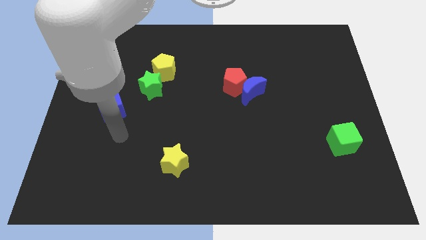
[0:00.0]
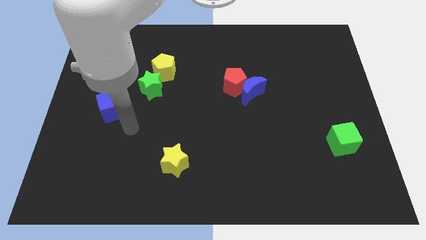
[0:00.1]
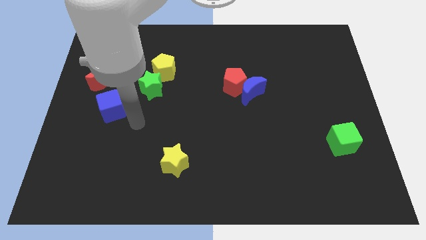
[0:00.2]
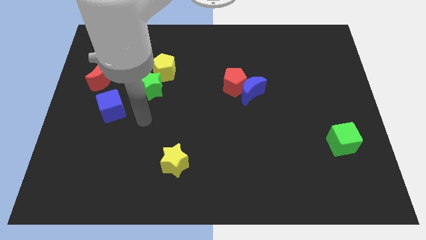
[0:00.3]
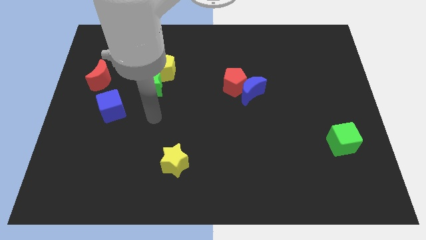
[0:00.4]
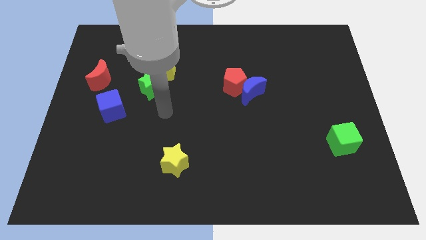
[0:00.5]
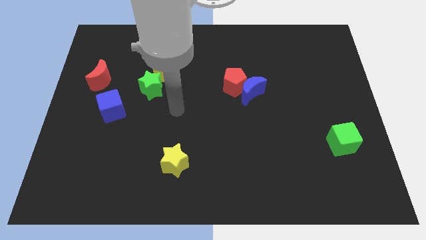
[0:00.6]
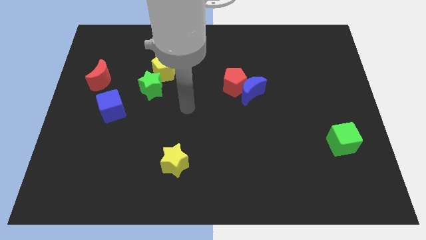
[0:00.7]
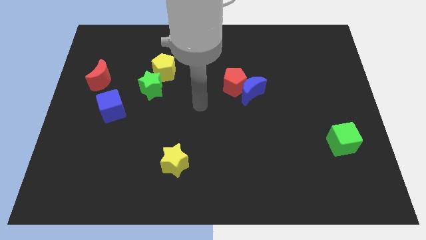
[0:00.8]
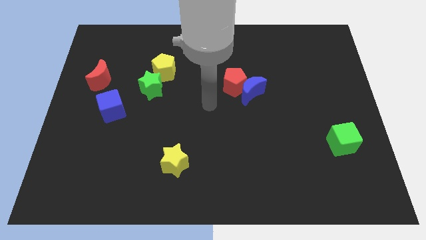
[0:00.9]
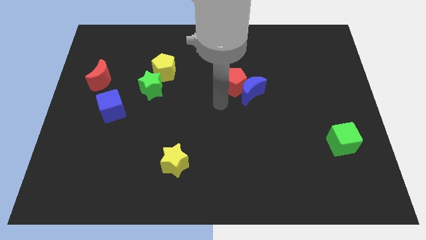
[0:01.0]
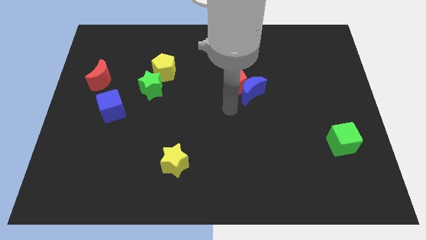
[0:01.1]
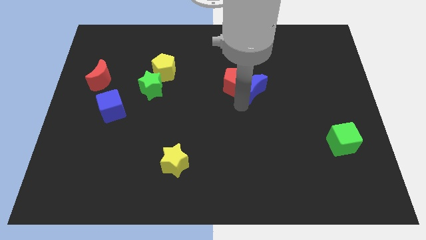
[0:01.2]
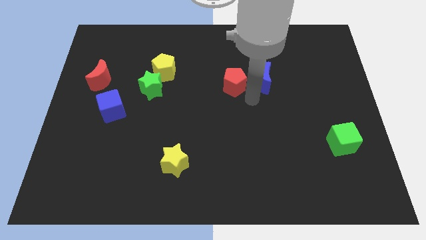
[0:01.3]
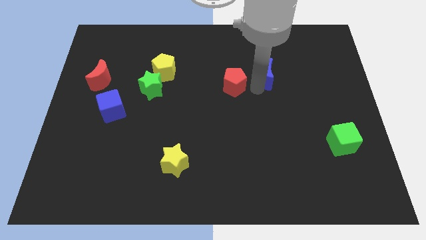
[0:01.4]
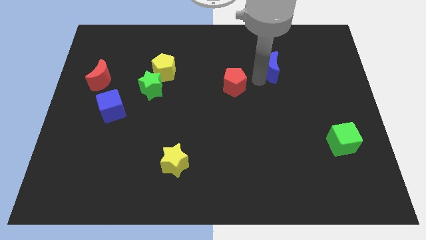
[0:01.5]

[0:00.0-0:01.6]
separate the red pentagon from the blue moon

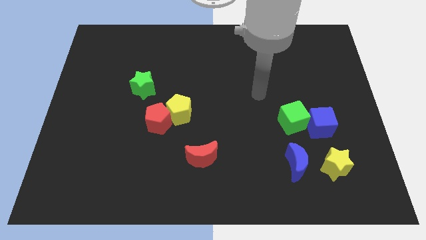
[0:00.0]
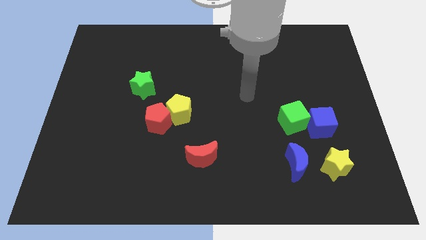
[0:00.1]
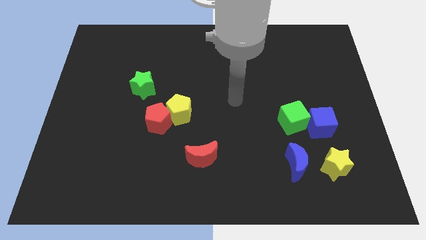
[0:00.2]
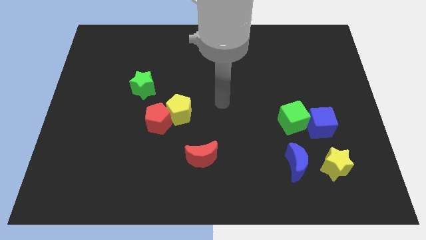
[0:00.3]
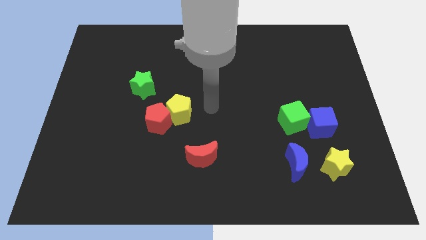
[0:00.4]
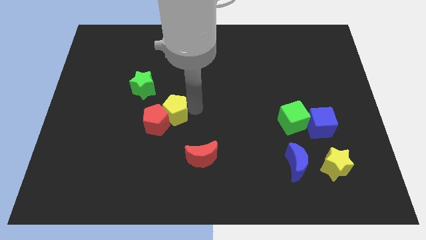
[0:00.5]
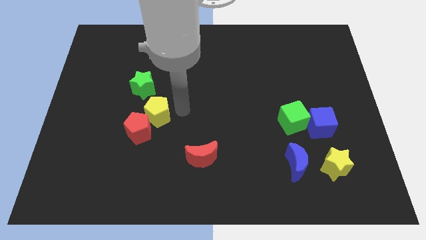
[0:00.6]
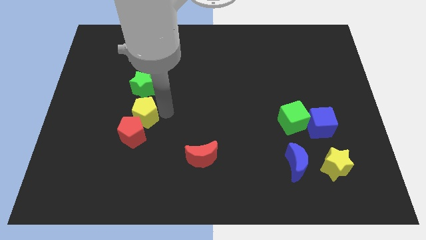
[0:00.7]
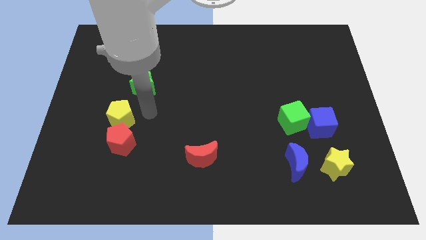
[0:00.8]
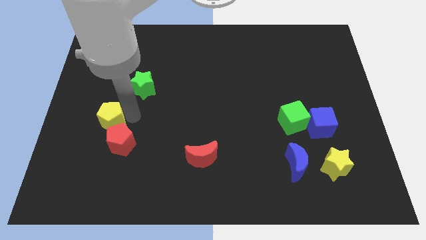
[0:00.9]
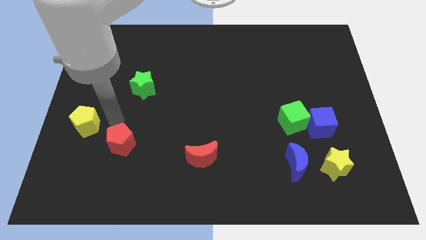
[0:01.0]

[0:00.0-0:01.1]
pull the red pentagon apart from the yellow pentagon

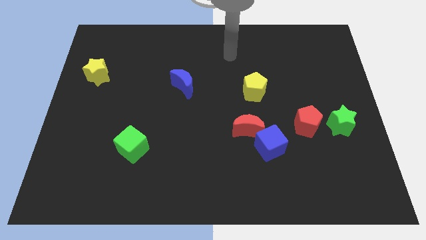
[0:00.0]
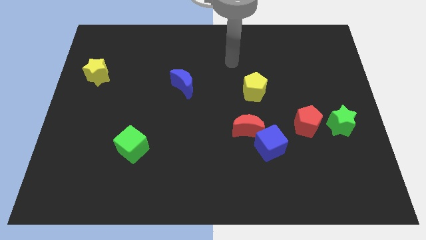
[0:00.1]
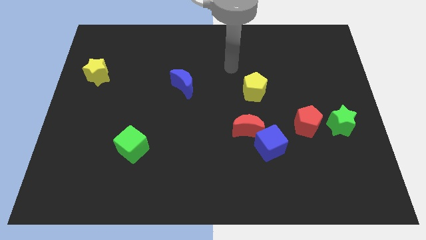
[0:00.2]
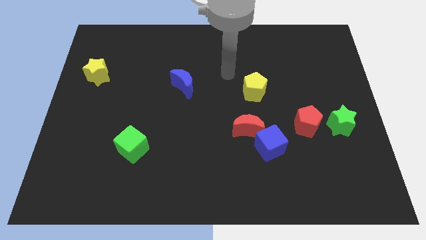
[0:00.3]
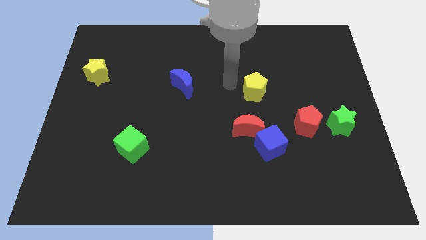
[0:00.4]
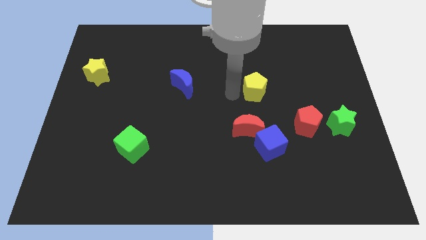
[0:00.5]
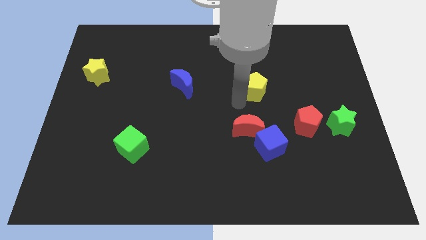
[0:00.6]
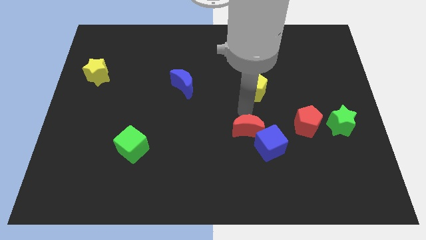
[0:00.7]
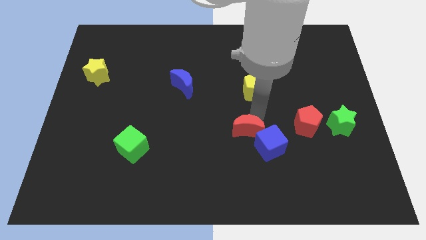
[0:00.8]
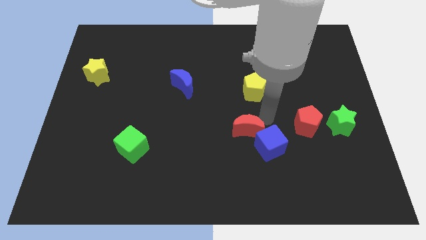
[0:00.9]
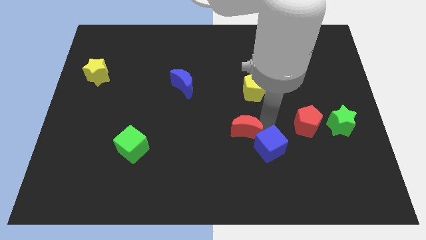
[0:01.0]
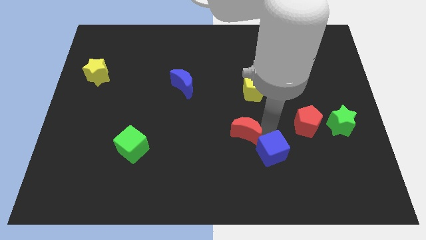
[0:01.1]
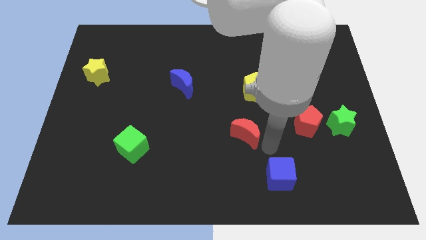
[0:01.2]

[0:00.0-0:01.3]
move the red moon away from the blue cube

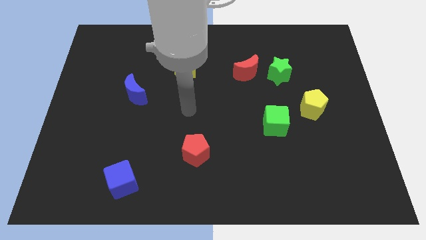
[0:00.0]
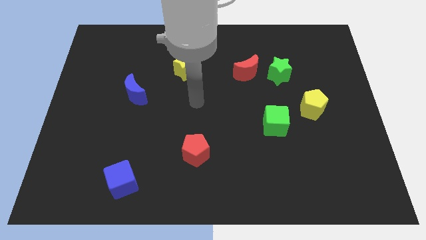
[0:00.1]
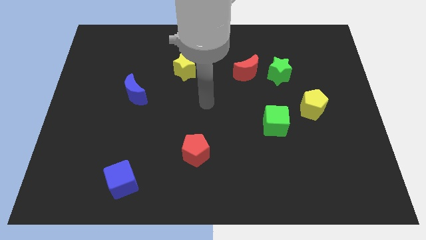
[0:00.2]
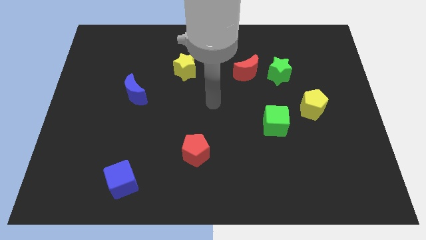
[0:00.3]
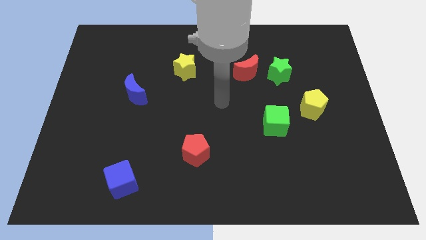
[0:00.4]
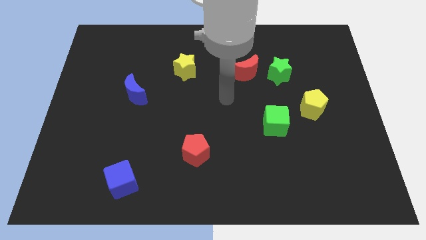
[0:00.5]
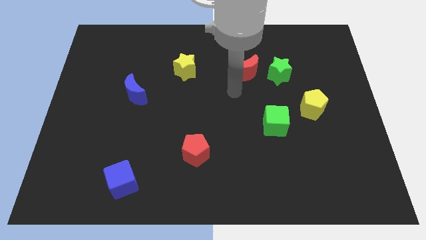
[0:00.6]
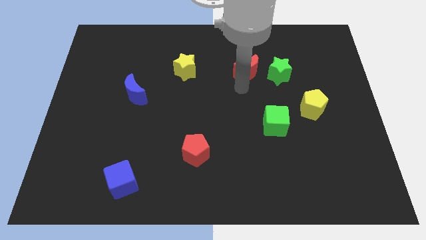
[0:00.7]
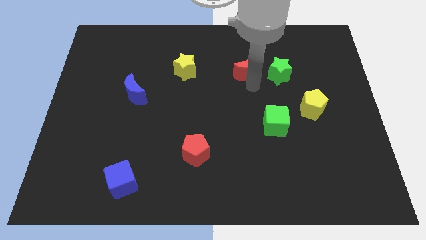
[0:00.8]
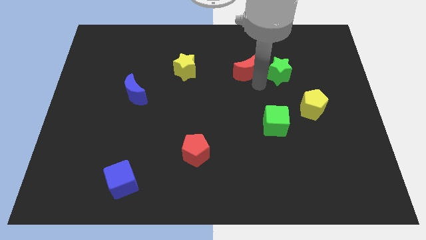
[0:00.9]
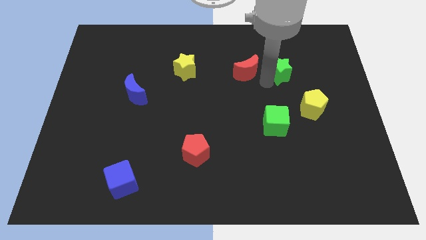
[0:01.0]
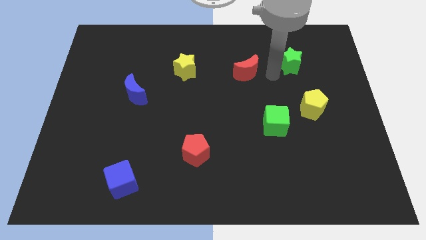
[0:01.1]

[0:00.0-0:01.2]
pull the red moon apart from the green star

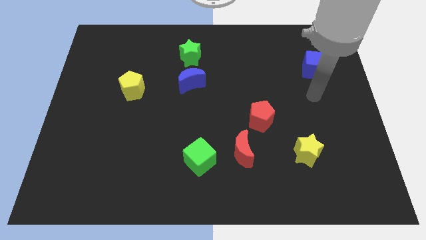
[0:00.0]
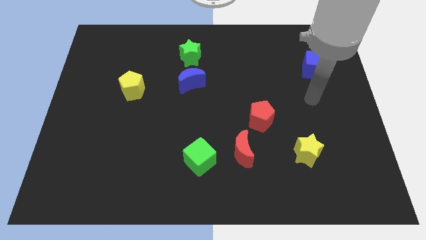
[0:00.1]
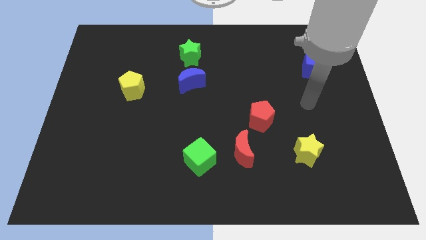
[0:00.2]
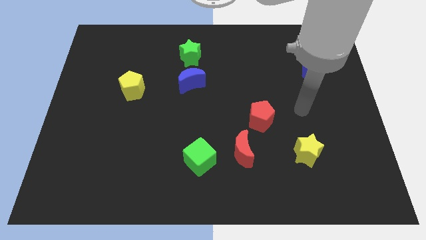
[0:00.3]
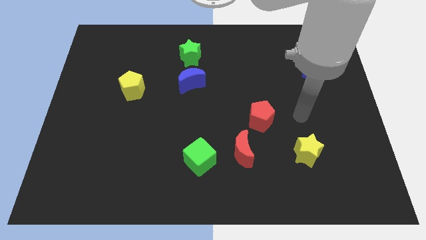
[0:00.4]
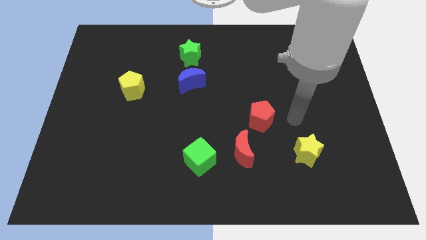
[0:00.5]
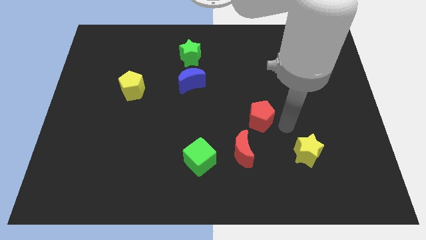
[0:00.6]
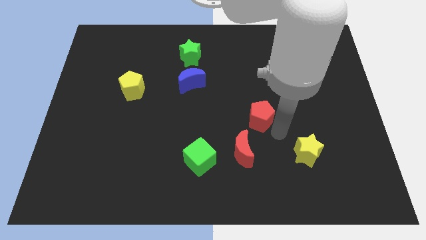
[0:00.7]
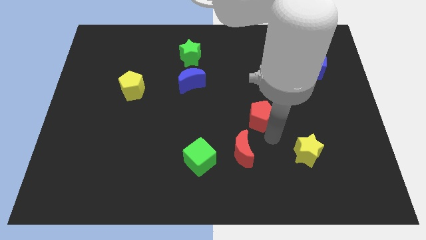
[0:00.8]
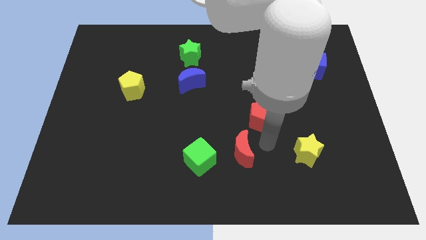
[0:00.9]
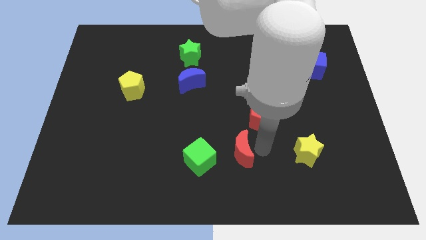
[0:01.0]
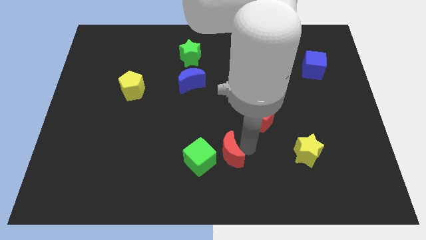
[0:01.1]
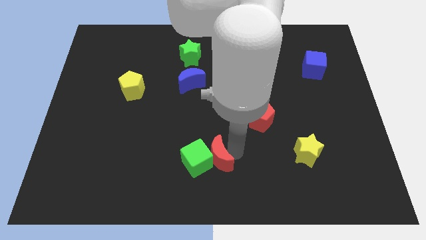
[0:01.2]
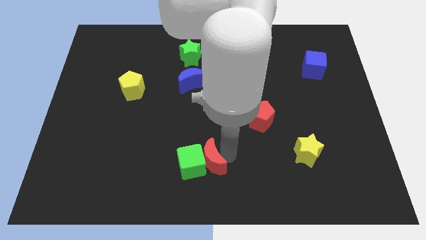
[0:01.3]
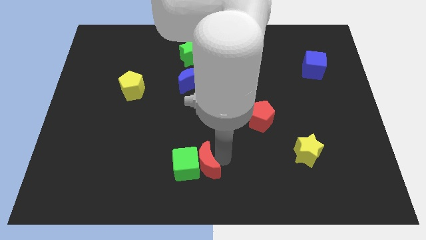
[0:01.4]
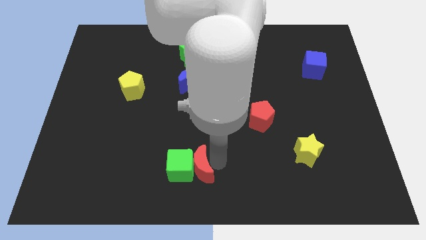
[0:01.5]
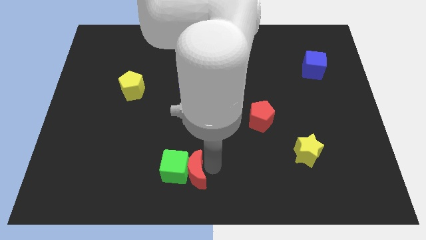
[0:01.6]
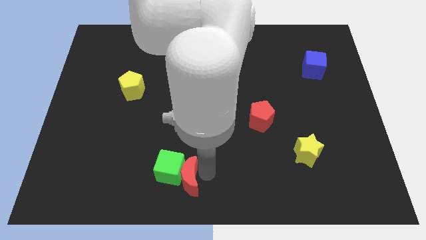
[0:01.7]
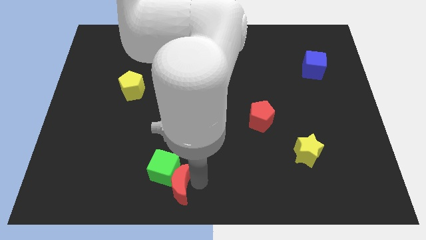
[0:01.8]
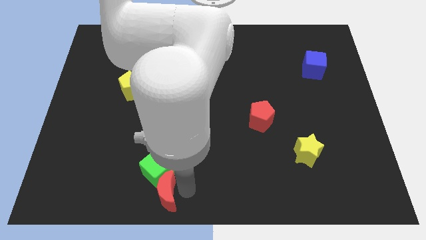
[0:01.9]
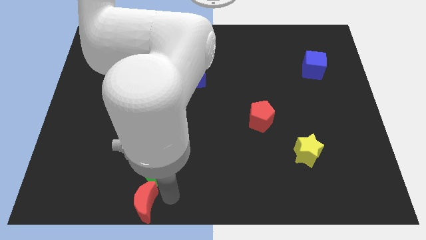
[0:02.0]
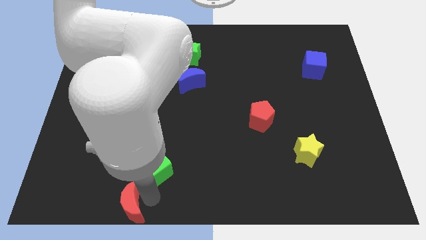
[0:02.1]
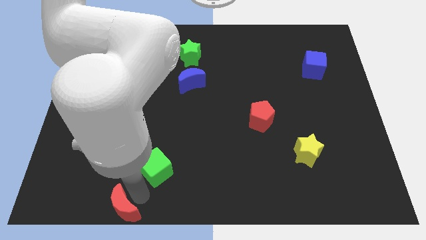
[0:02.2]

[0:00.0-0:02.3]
move the green cube away from the red moon

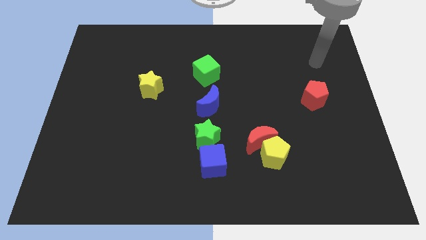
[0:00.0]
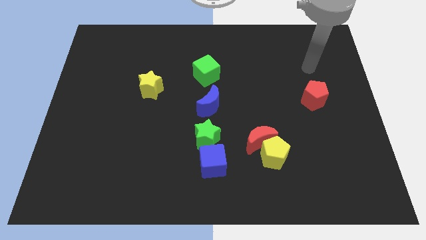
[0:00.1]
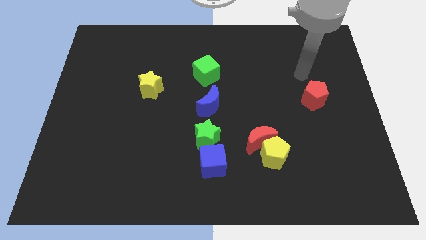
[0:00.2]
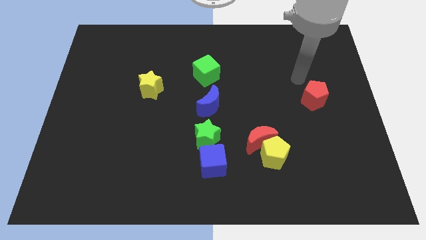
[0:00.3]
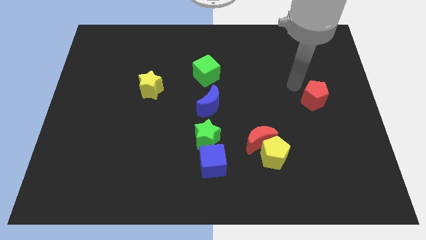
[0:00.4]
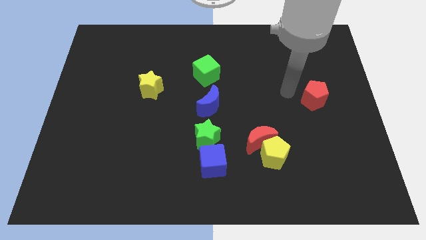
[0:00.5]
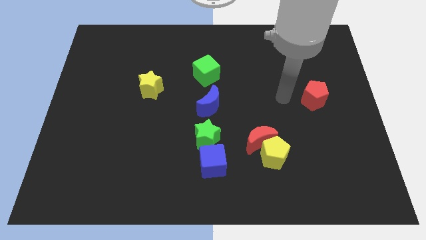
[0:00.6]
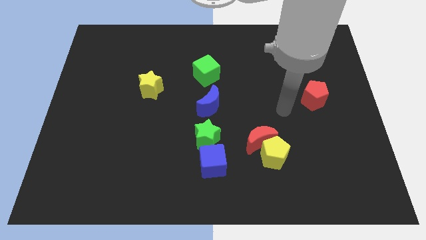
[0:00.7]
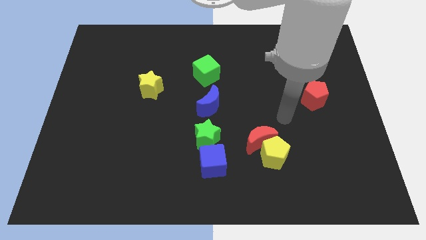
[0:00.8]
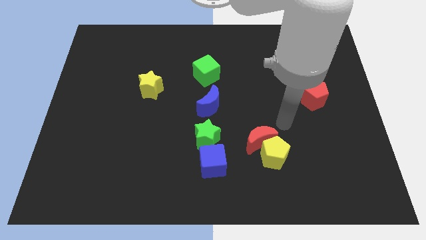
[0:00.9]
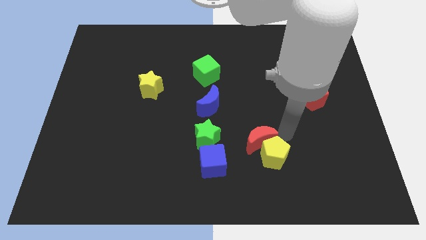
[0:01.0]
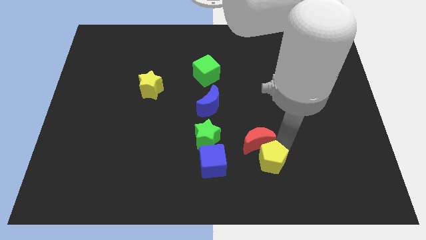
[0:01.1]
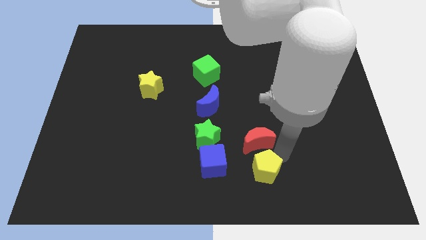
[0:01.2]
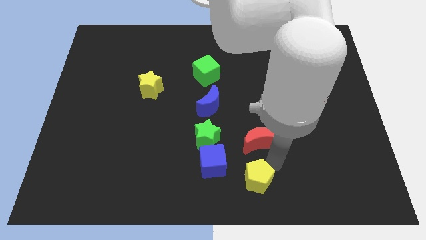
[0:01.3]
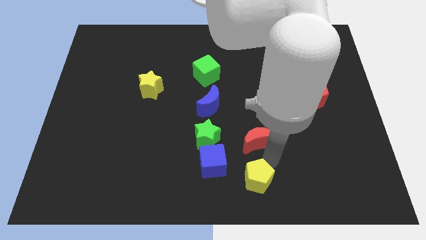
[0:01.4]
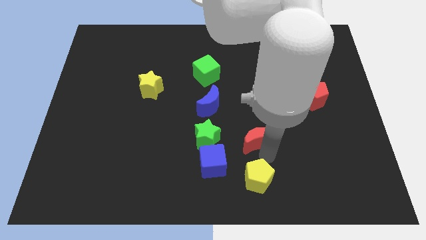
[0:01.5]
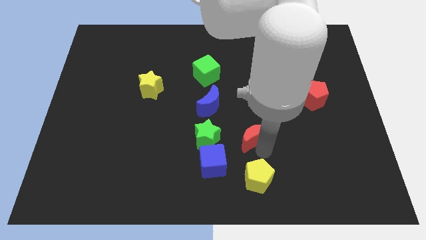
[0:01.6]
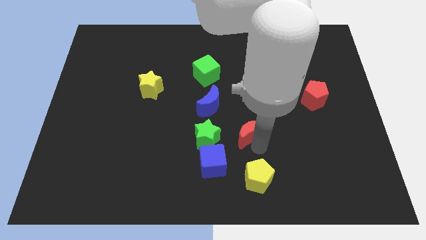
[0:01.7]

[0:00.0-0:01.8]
separate the red moon from the yellow pentagon
